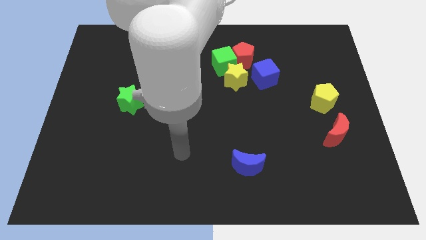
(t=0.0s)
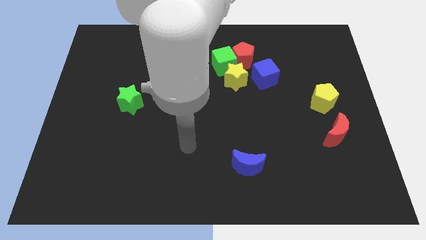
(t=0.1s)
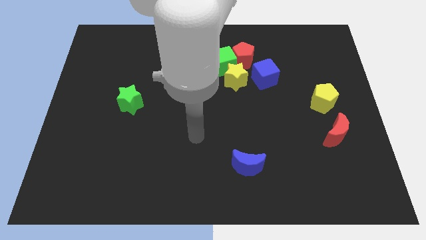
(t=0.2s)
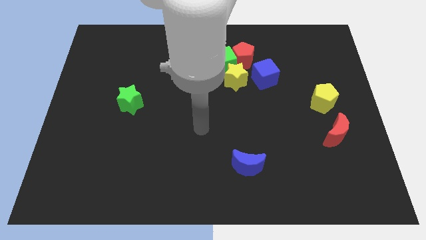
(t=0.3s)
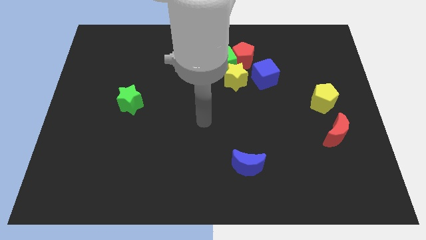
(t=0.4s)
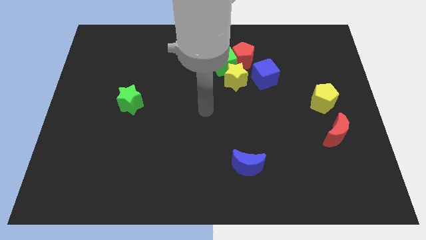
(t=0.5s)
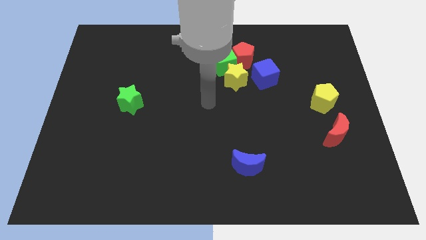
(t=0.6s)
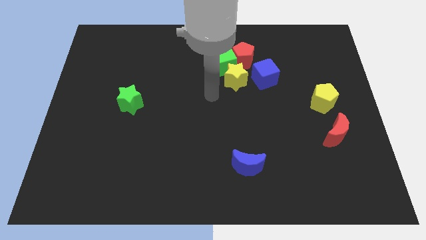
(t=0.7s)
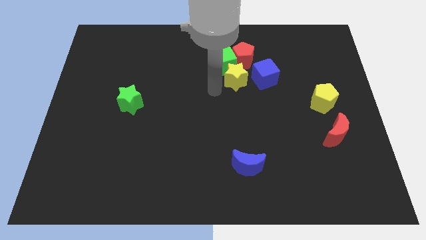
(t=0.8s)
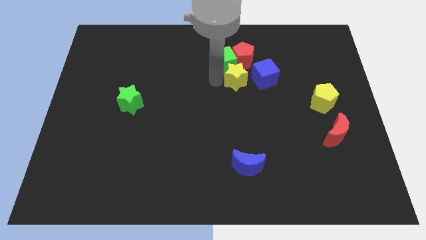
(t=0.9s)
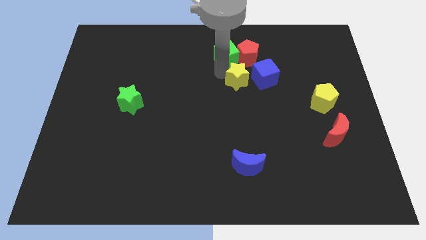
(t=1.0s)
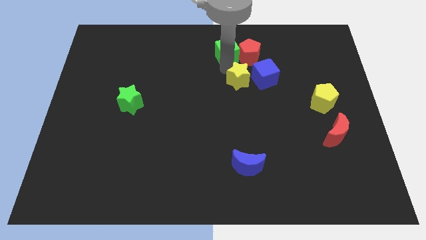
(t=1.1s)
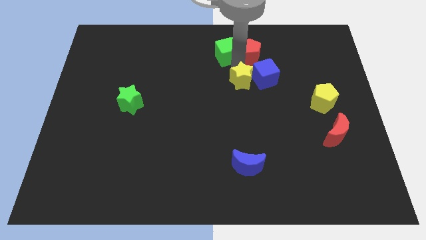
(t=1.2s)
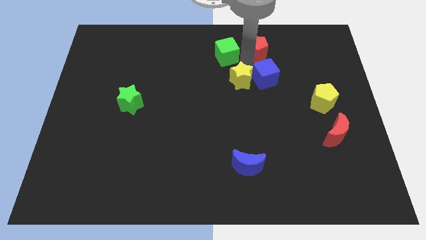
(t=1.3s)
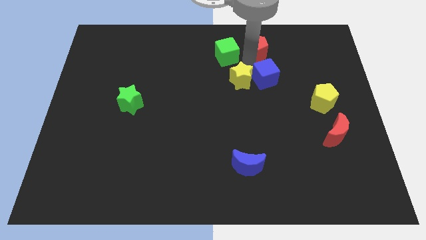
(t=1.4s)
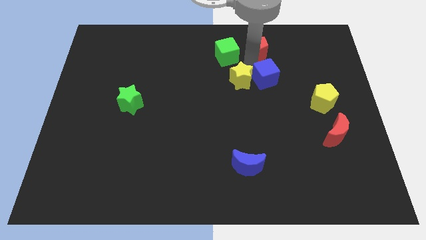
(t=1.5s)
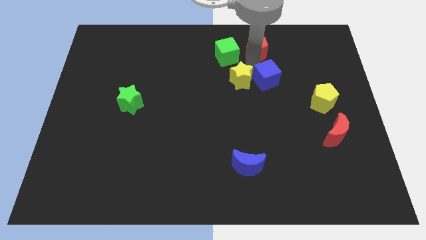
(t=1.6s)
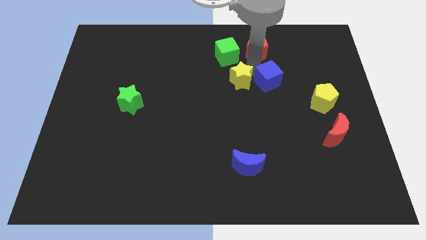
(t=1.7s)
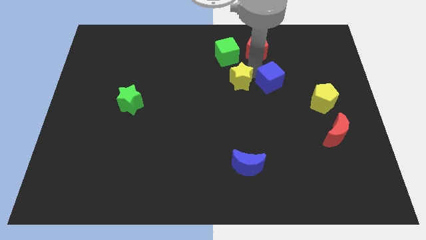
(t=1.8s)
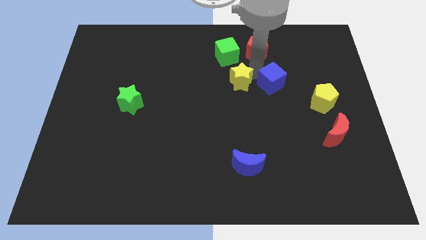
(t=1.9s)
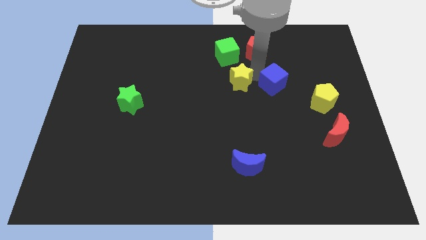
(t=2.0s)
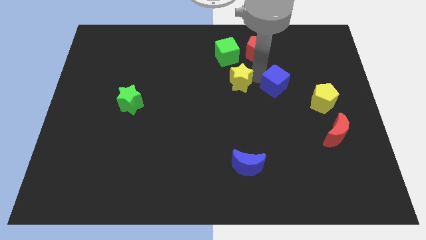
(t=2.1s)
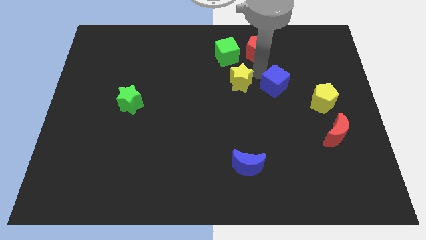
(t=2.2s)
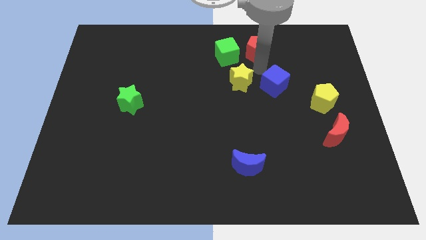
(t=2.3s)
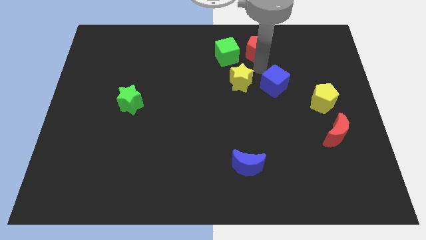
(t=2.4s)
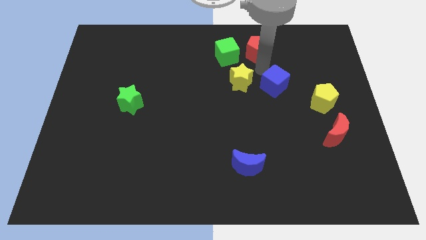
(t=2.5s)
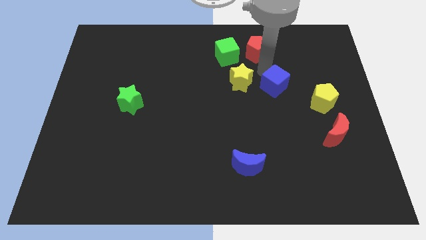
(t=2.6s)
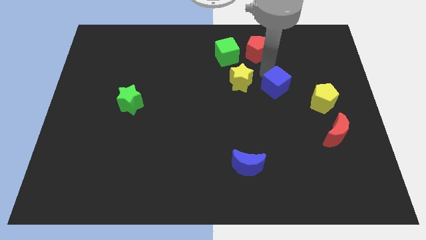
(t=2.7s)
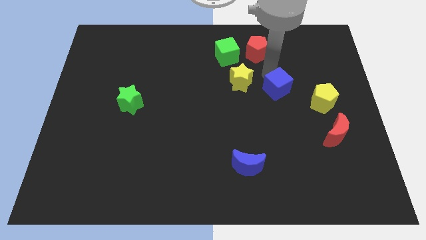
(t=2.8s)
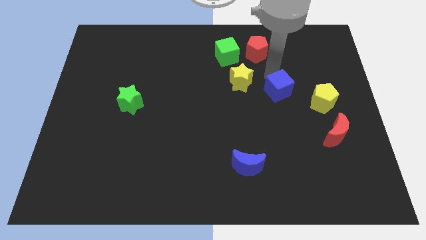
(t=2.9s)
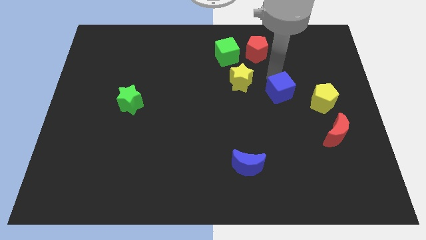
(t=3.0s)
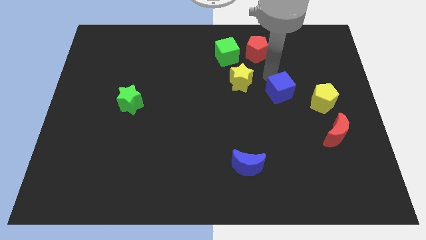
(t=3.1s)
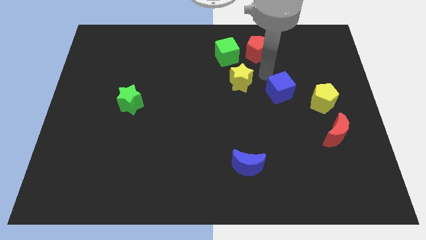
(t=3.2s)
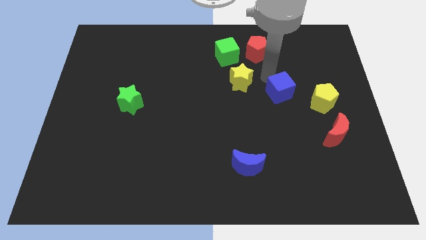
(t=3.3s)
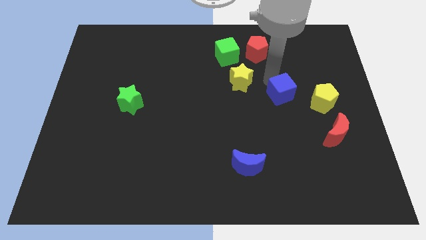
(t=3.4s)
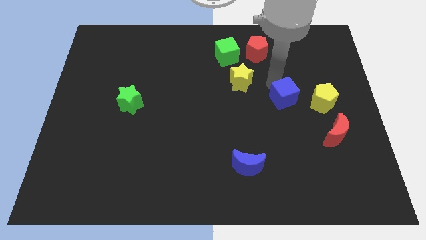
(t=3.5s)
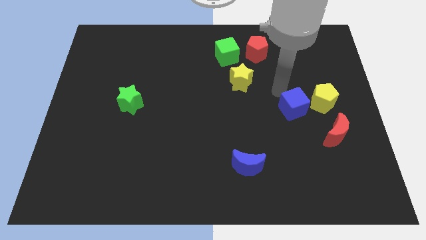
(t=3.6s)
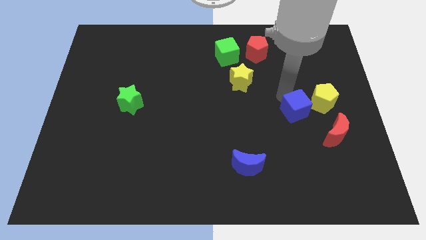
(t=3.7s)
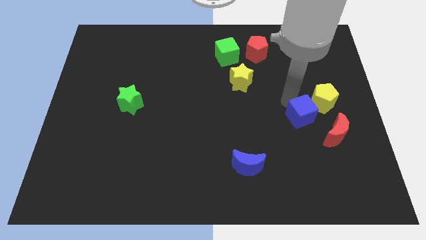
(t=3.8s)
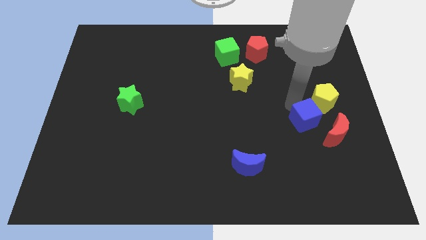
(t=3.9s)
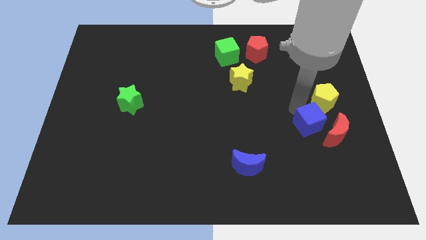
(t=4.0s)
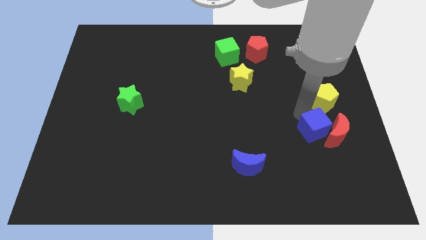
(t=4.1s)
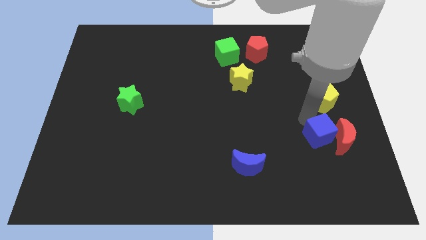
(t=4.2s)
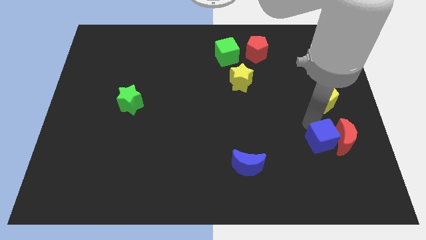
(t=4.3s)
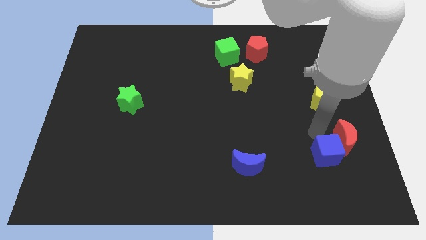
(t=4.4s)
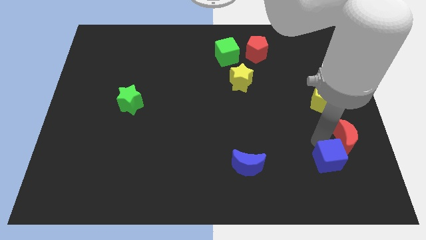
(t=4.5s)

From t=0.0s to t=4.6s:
push the blue cube to the bottom side of the red moon

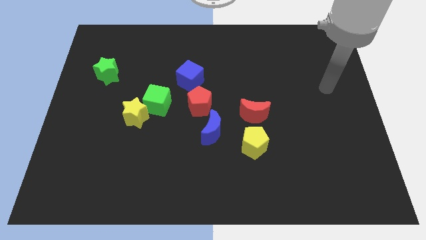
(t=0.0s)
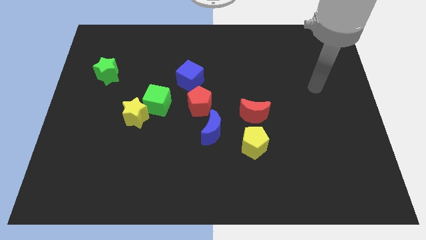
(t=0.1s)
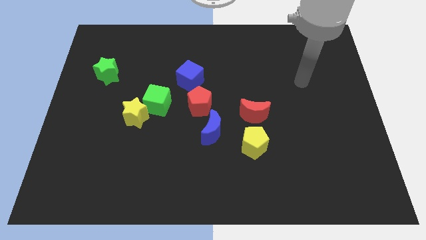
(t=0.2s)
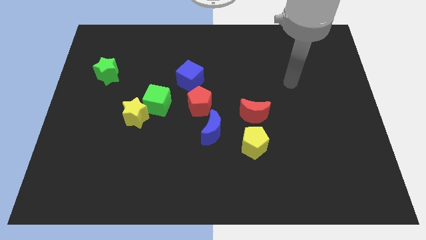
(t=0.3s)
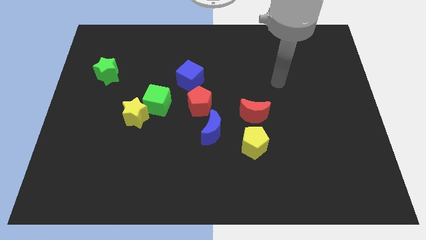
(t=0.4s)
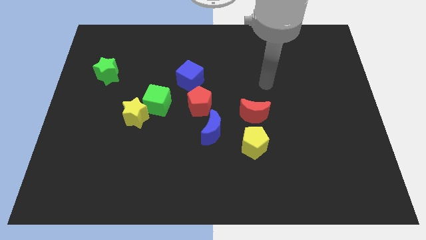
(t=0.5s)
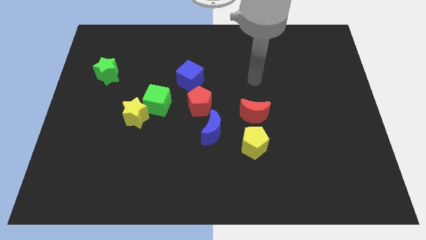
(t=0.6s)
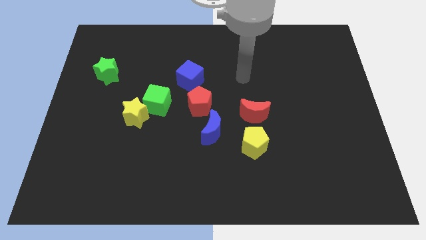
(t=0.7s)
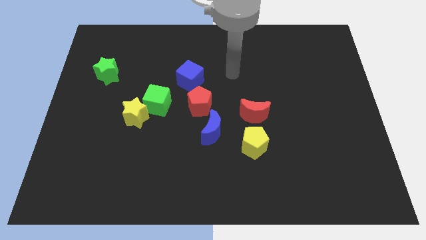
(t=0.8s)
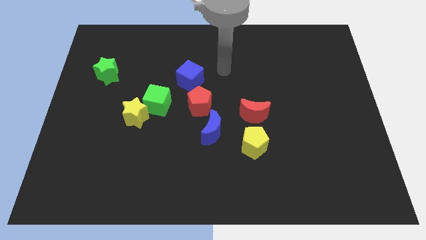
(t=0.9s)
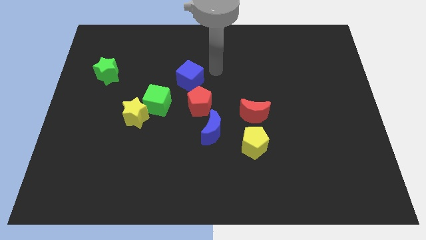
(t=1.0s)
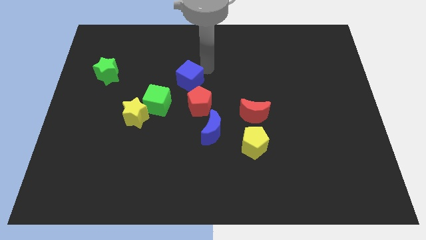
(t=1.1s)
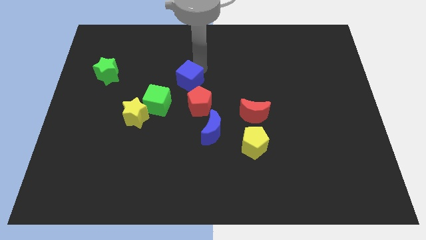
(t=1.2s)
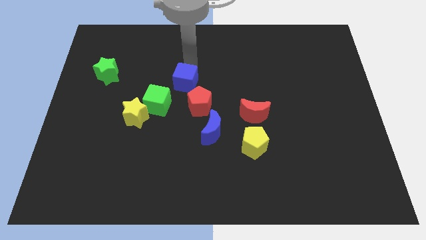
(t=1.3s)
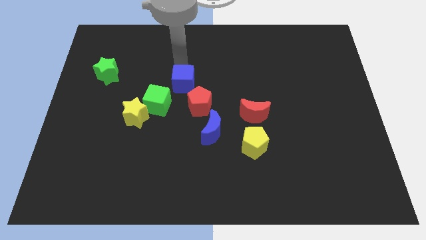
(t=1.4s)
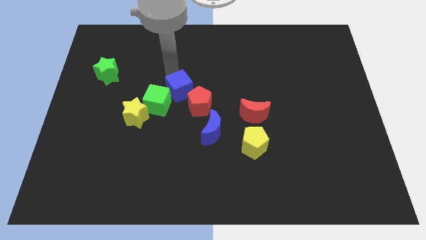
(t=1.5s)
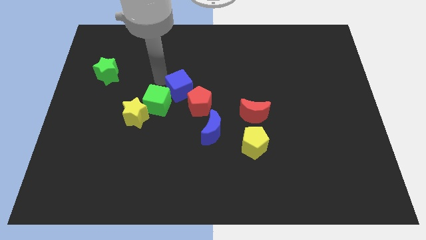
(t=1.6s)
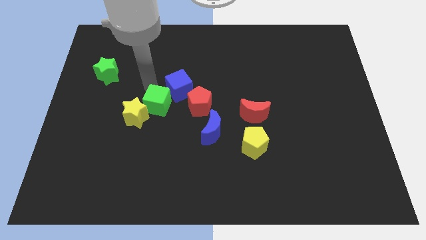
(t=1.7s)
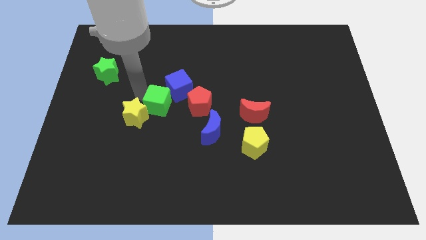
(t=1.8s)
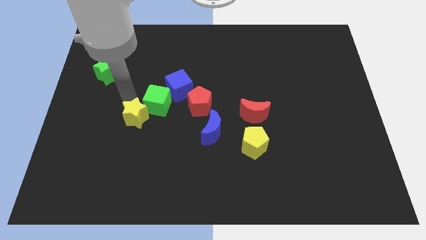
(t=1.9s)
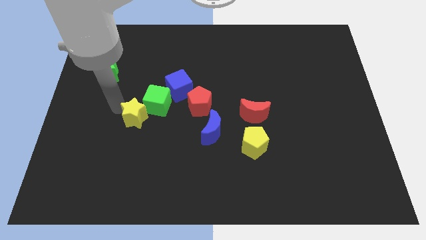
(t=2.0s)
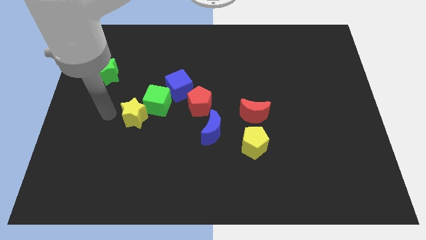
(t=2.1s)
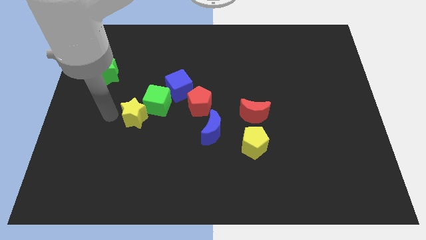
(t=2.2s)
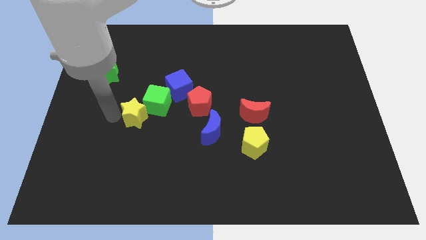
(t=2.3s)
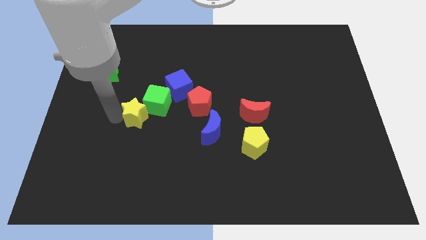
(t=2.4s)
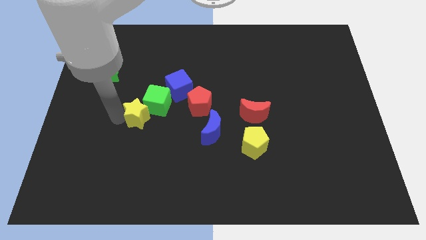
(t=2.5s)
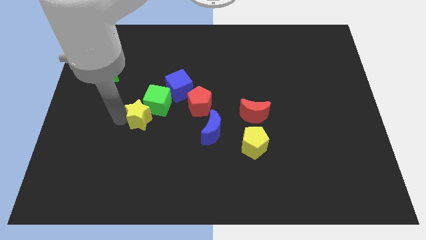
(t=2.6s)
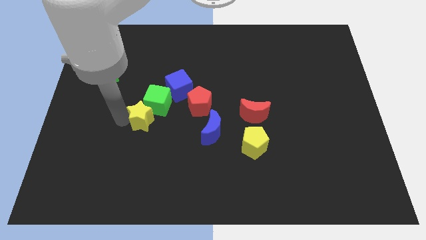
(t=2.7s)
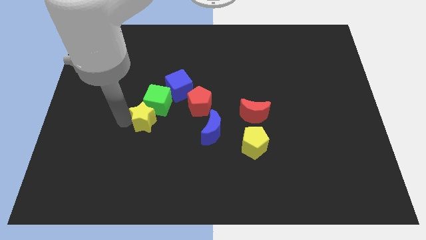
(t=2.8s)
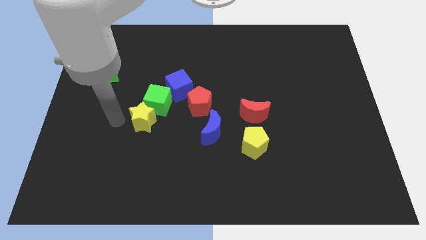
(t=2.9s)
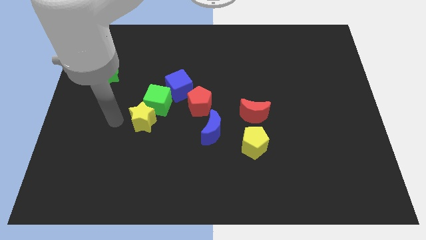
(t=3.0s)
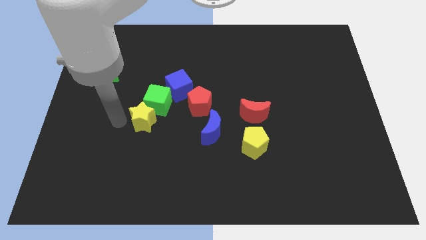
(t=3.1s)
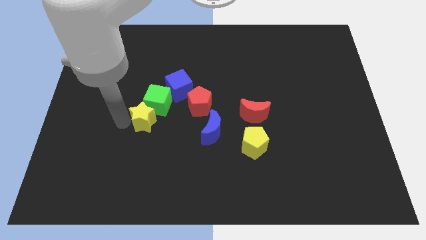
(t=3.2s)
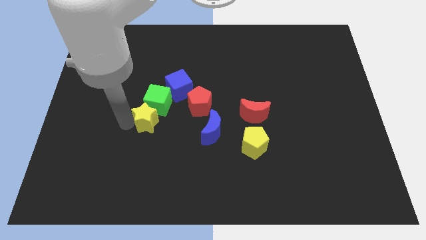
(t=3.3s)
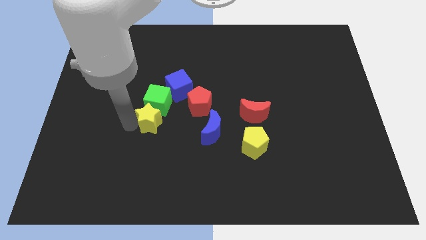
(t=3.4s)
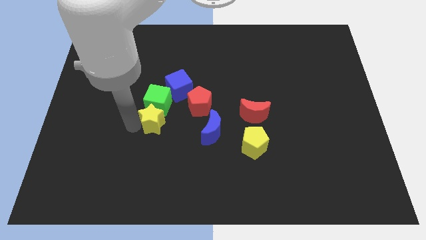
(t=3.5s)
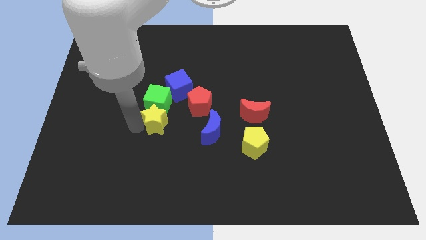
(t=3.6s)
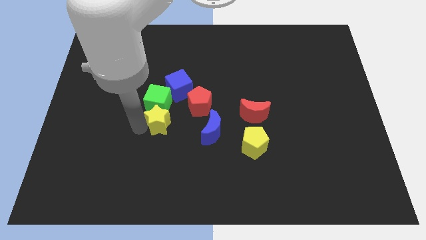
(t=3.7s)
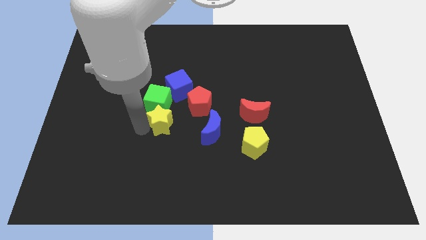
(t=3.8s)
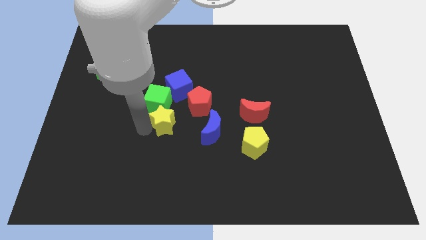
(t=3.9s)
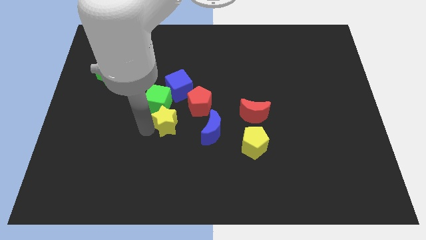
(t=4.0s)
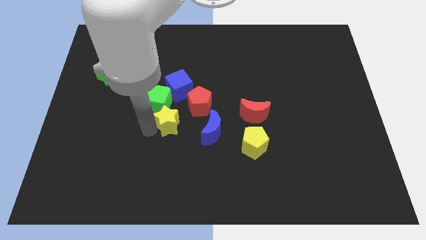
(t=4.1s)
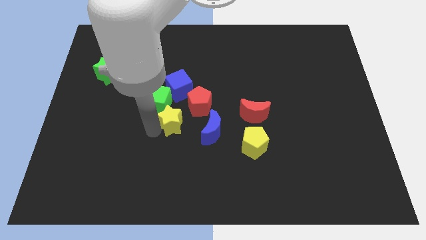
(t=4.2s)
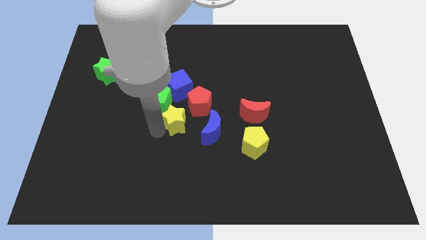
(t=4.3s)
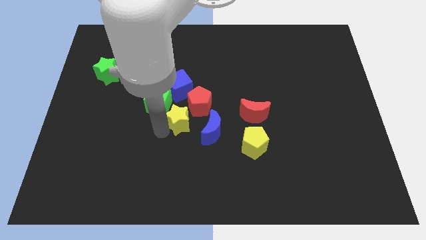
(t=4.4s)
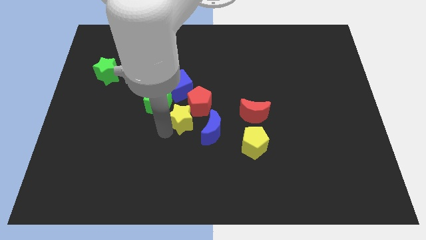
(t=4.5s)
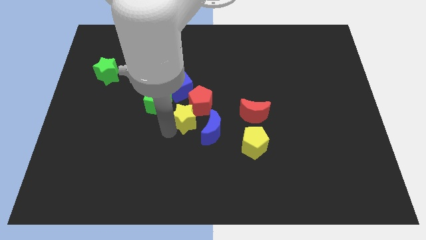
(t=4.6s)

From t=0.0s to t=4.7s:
move the yellow star to the left of the red moon
